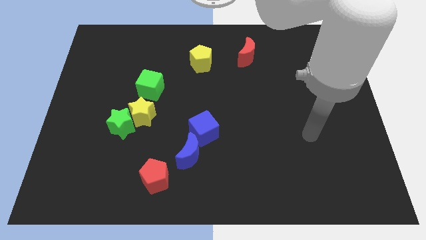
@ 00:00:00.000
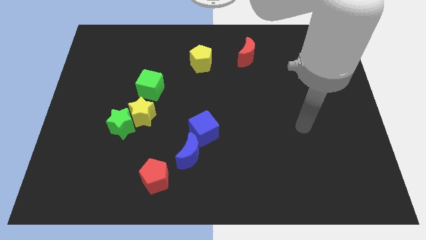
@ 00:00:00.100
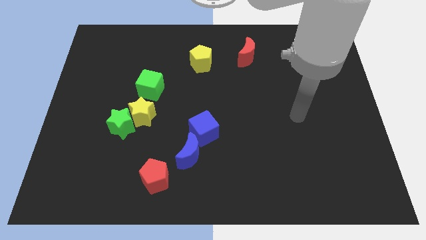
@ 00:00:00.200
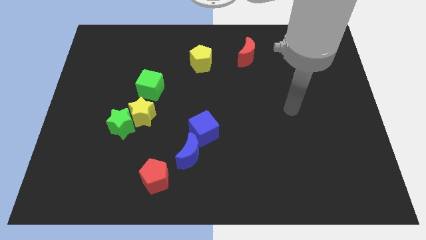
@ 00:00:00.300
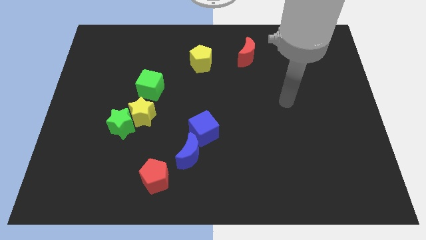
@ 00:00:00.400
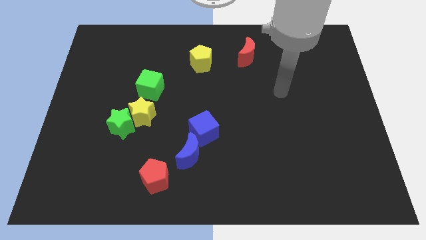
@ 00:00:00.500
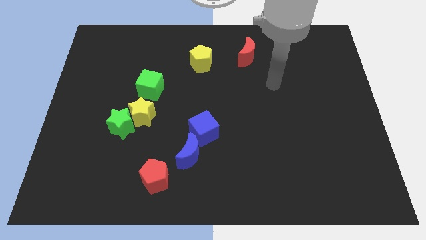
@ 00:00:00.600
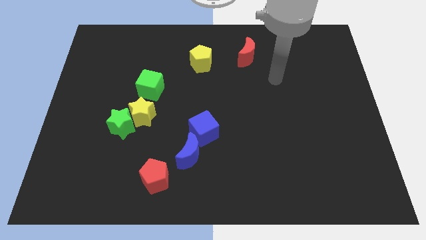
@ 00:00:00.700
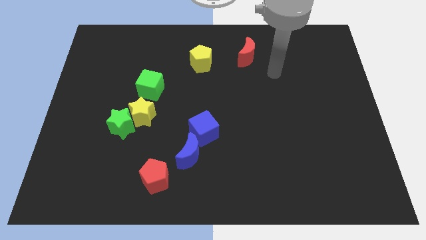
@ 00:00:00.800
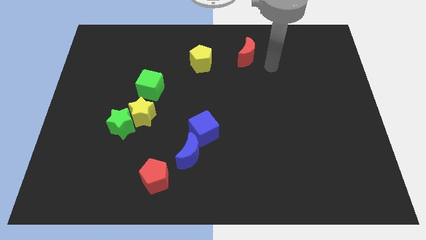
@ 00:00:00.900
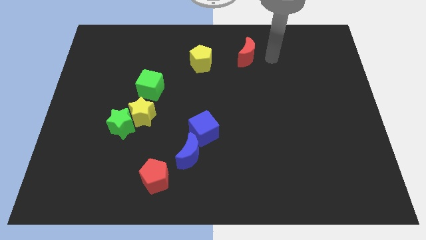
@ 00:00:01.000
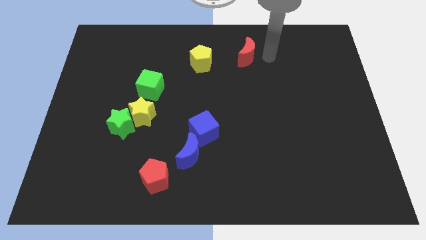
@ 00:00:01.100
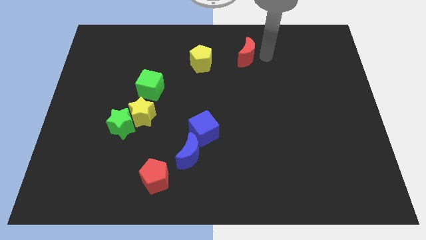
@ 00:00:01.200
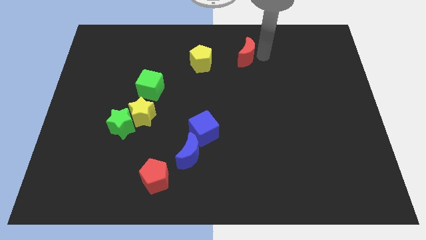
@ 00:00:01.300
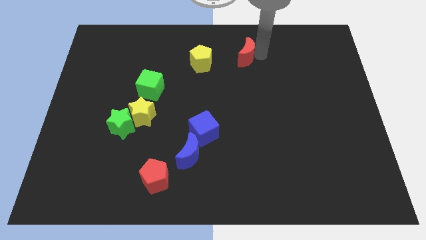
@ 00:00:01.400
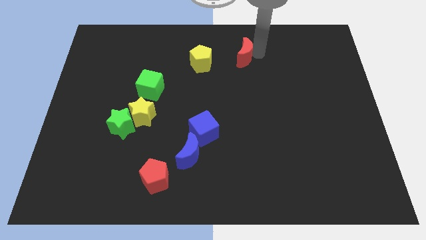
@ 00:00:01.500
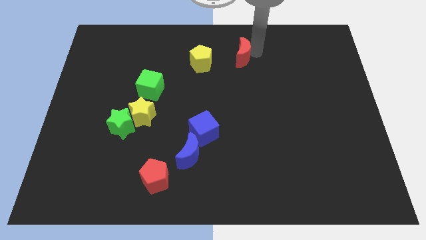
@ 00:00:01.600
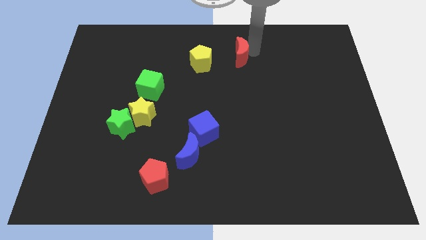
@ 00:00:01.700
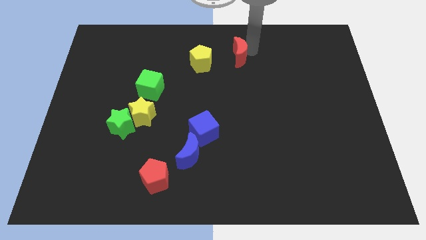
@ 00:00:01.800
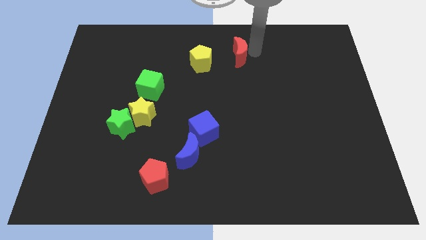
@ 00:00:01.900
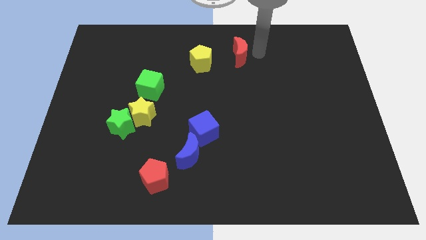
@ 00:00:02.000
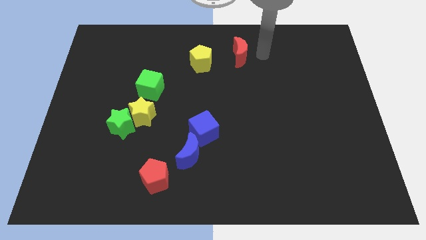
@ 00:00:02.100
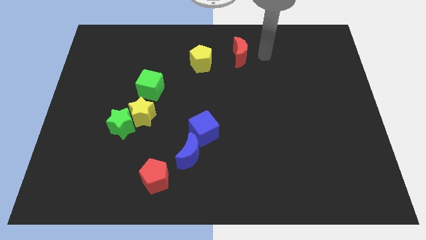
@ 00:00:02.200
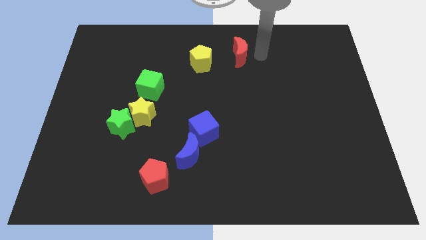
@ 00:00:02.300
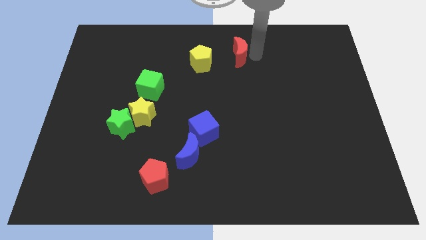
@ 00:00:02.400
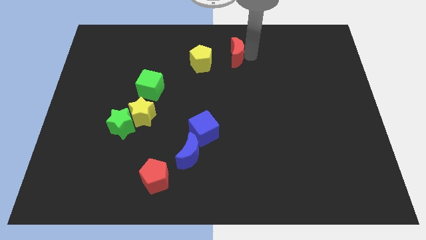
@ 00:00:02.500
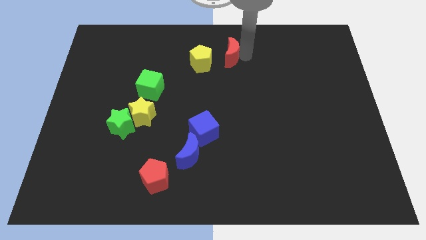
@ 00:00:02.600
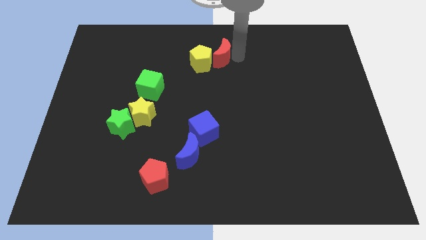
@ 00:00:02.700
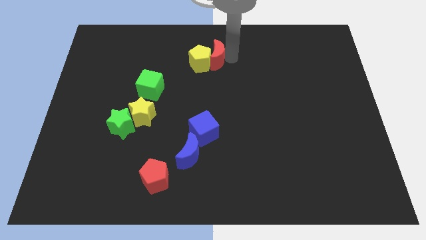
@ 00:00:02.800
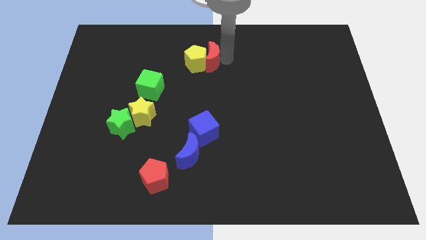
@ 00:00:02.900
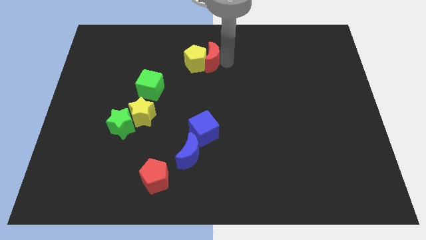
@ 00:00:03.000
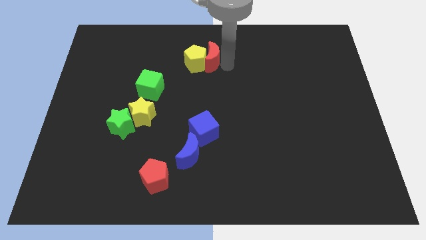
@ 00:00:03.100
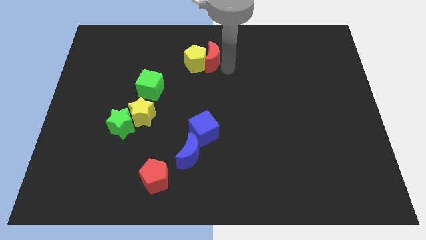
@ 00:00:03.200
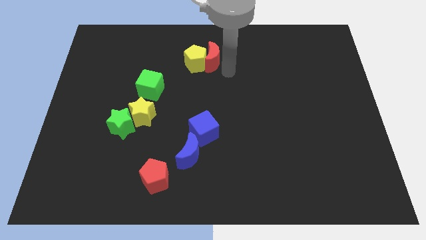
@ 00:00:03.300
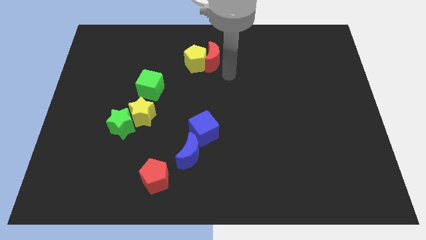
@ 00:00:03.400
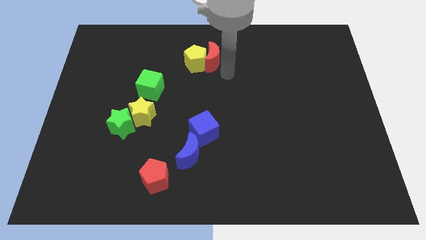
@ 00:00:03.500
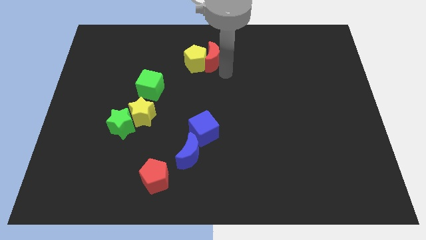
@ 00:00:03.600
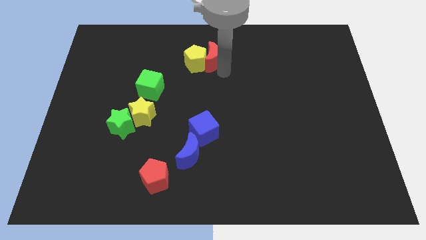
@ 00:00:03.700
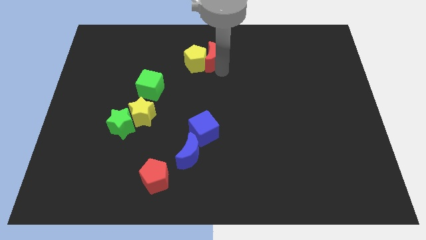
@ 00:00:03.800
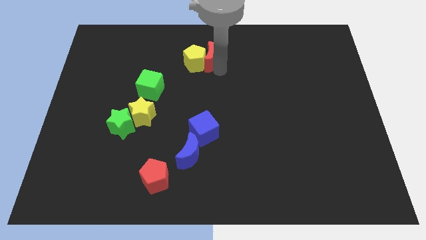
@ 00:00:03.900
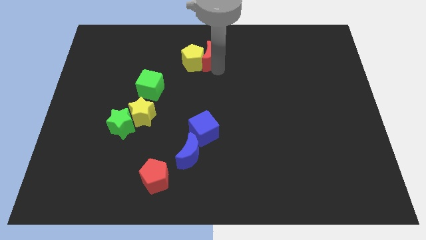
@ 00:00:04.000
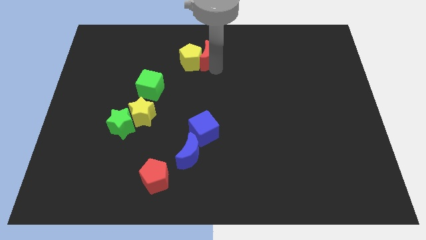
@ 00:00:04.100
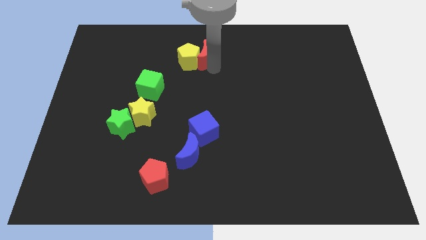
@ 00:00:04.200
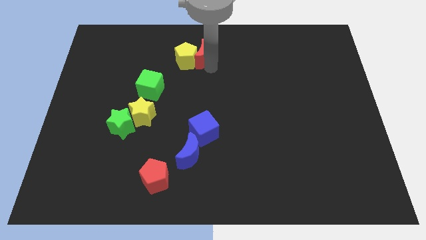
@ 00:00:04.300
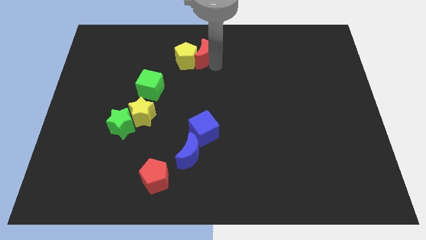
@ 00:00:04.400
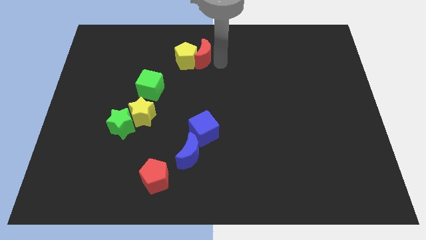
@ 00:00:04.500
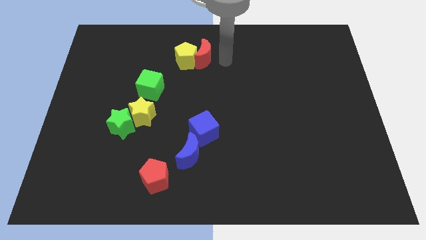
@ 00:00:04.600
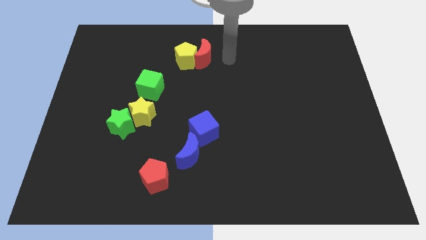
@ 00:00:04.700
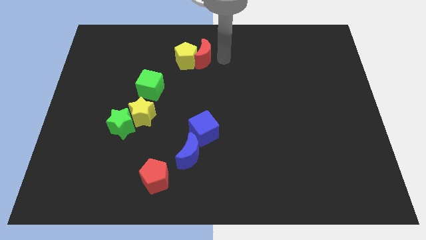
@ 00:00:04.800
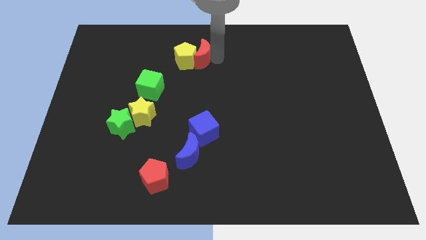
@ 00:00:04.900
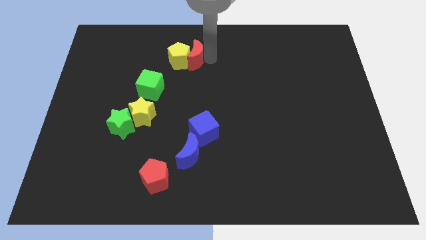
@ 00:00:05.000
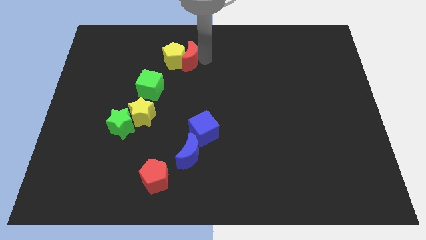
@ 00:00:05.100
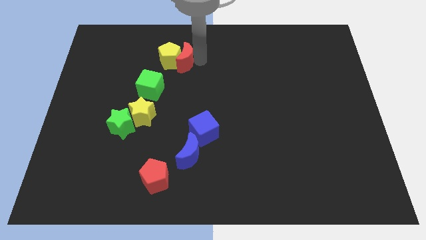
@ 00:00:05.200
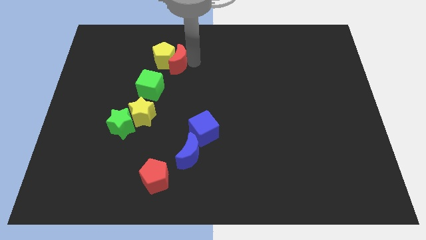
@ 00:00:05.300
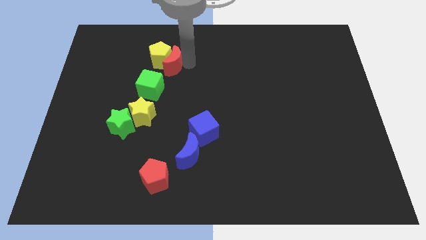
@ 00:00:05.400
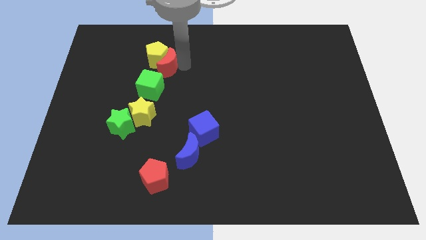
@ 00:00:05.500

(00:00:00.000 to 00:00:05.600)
slide the red moon to the left

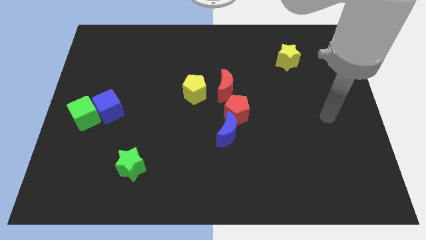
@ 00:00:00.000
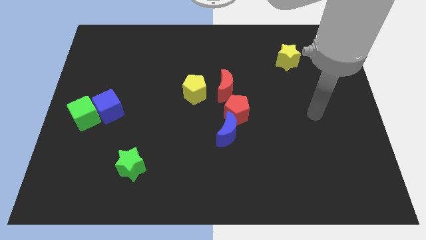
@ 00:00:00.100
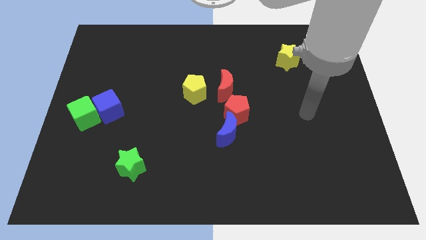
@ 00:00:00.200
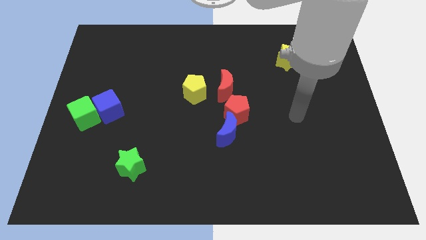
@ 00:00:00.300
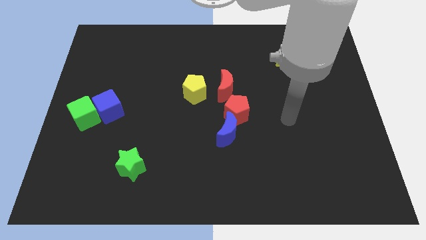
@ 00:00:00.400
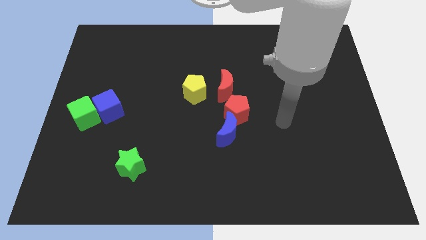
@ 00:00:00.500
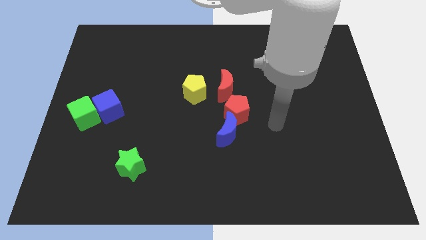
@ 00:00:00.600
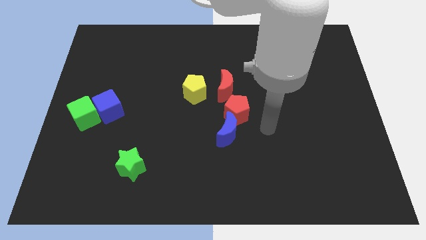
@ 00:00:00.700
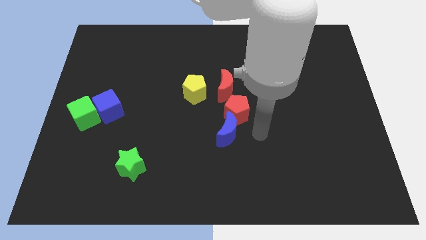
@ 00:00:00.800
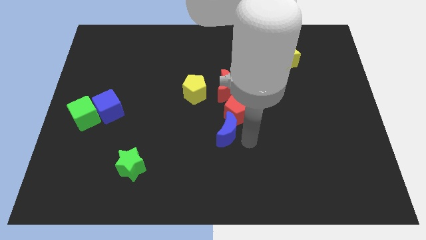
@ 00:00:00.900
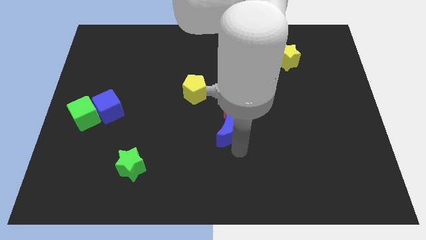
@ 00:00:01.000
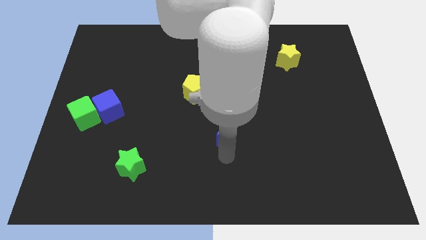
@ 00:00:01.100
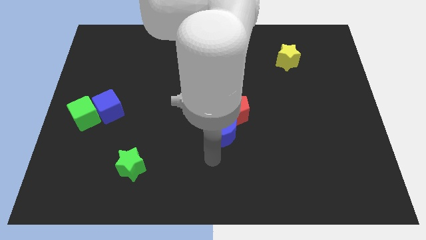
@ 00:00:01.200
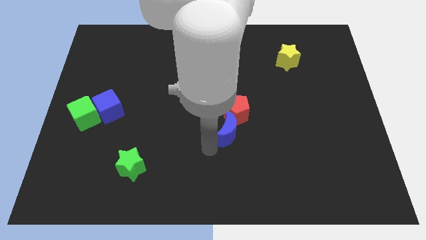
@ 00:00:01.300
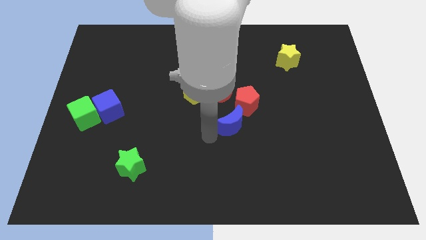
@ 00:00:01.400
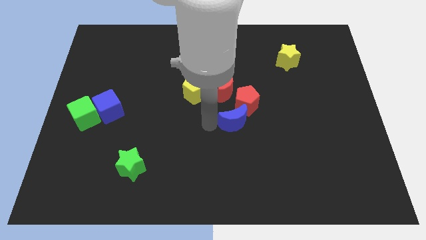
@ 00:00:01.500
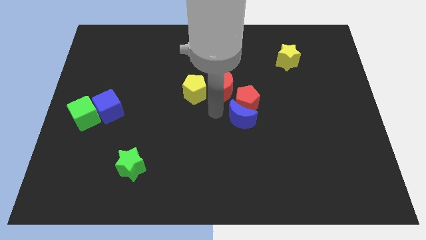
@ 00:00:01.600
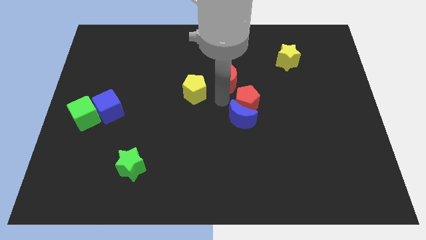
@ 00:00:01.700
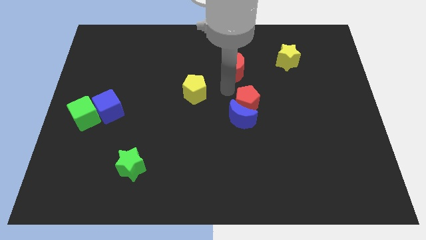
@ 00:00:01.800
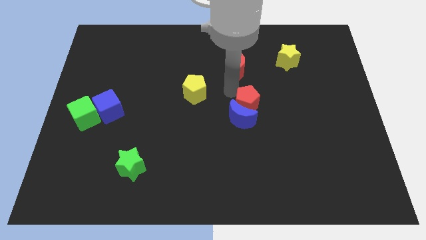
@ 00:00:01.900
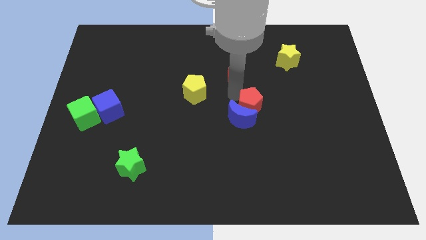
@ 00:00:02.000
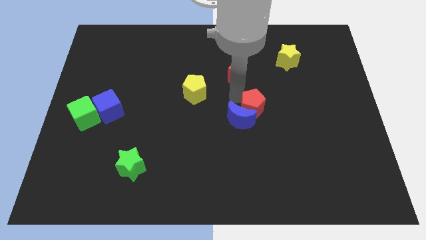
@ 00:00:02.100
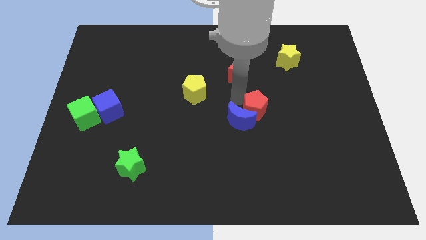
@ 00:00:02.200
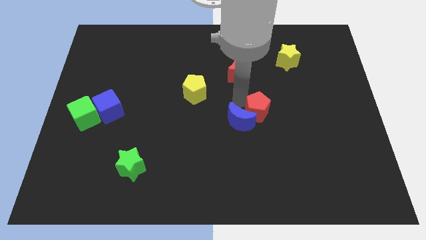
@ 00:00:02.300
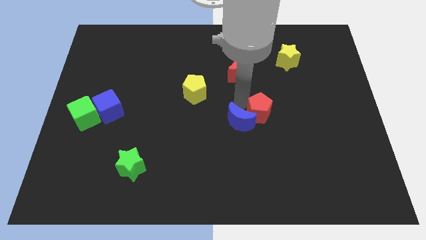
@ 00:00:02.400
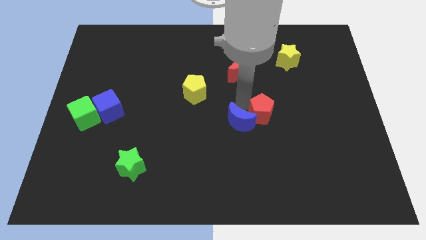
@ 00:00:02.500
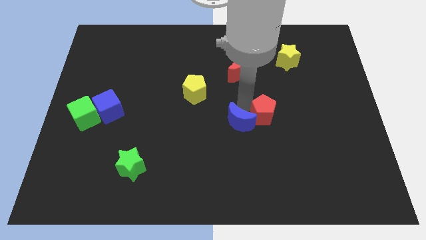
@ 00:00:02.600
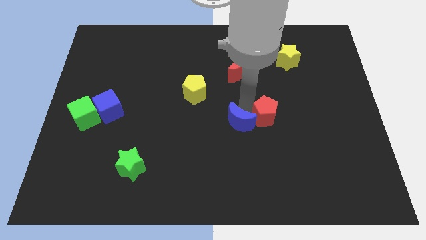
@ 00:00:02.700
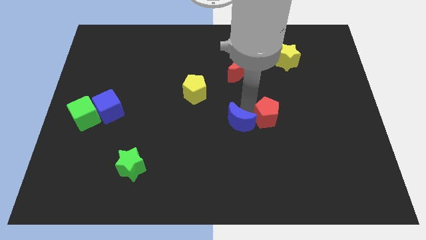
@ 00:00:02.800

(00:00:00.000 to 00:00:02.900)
slightly push the red pentagon to the right
